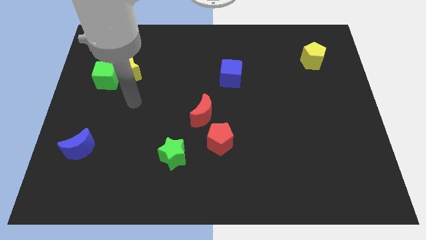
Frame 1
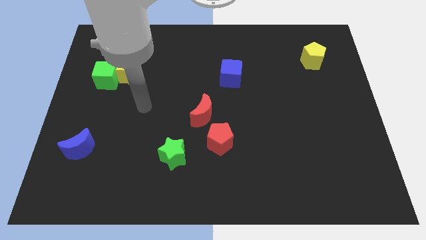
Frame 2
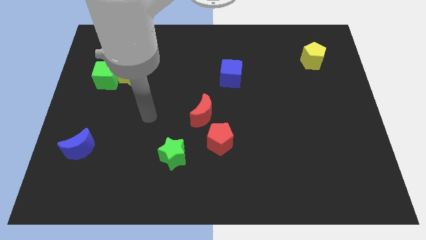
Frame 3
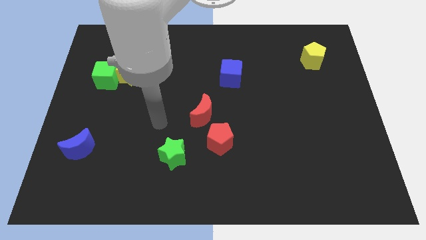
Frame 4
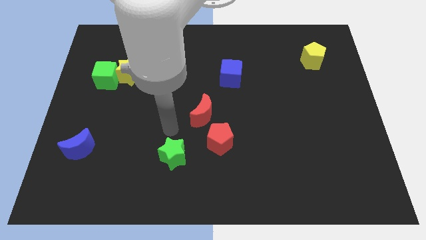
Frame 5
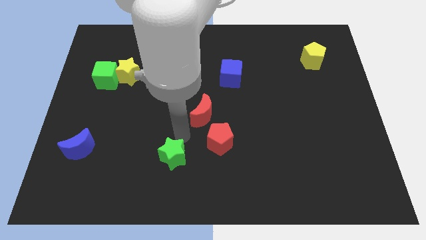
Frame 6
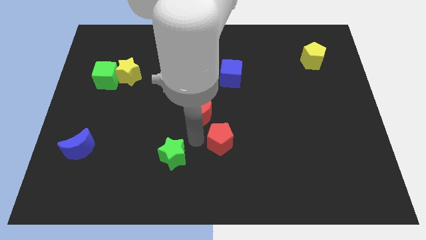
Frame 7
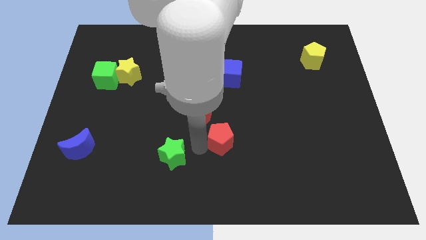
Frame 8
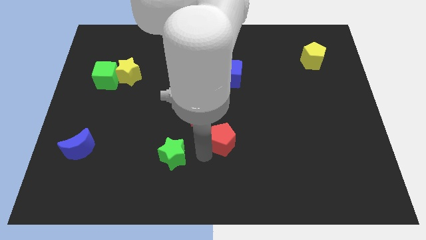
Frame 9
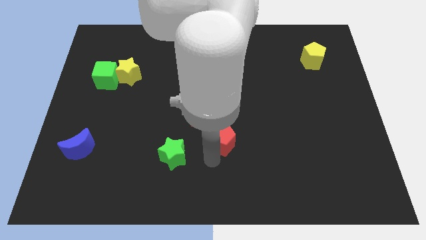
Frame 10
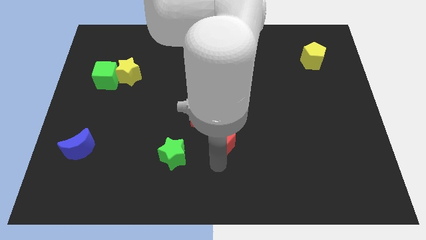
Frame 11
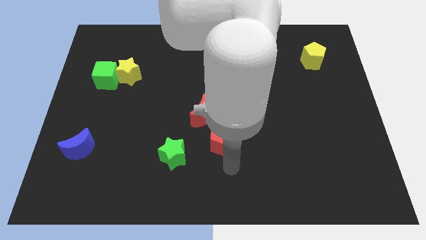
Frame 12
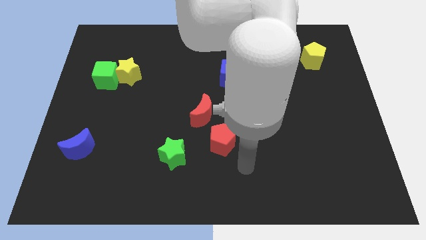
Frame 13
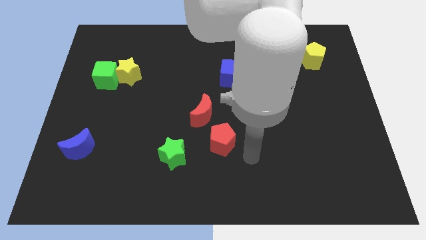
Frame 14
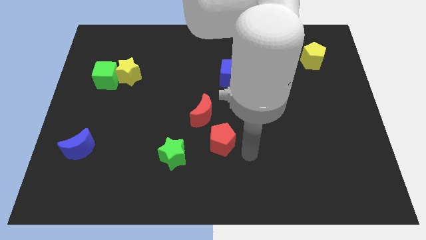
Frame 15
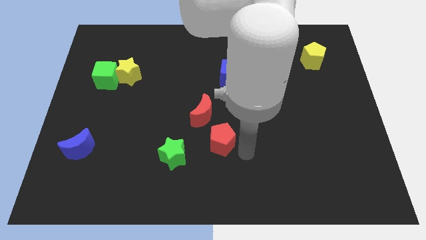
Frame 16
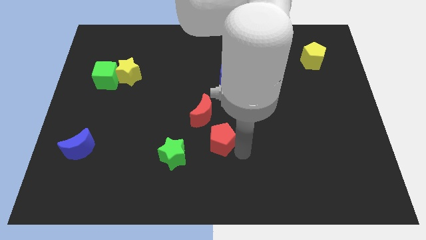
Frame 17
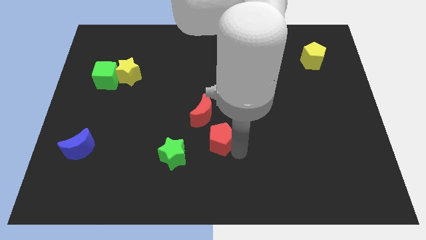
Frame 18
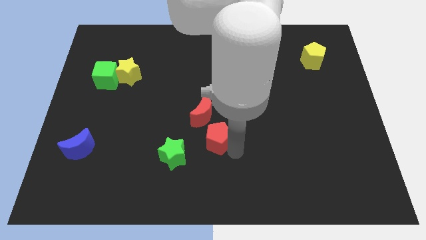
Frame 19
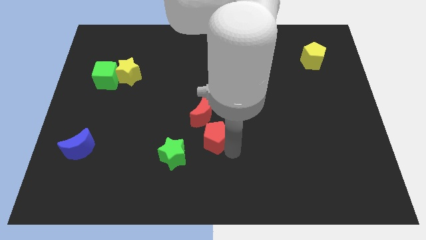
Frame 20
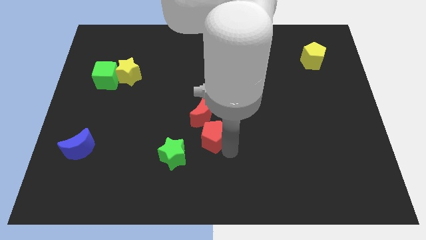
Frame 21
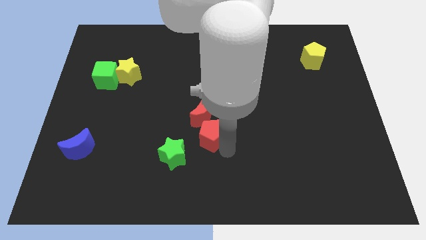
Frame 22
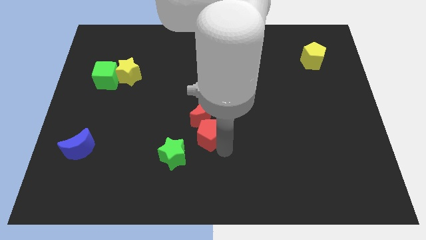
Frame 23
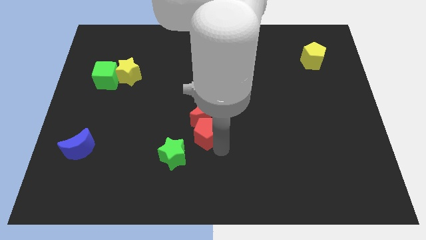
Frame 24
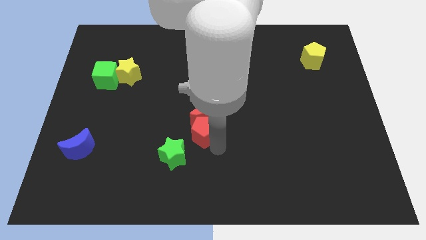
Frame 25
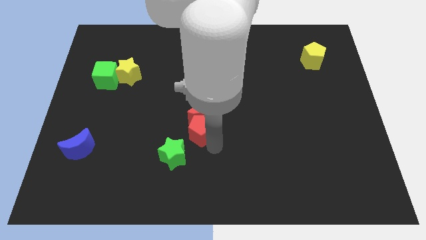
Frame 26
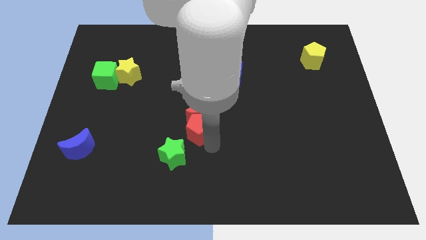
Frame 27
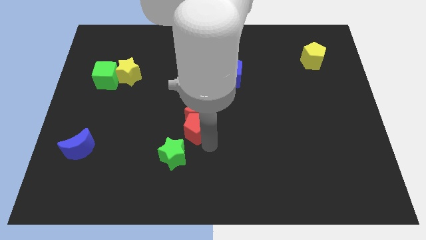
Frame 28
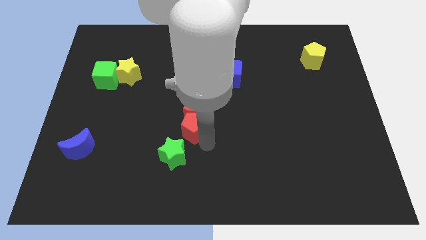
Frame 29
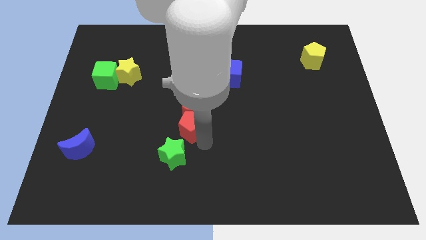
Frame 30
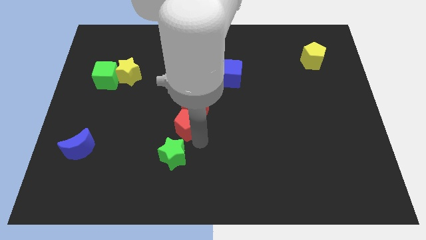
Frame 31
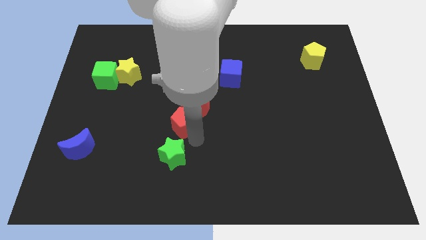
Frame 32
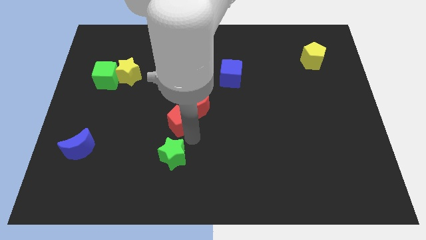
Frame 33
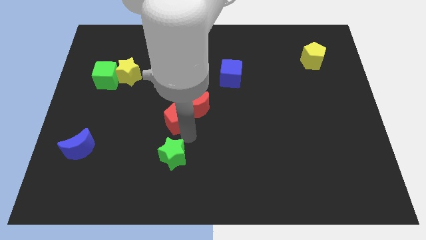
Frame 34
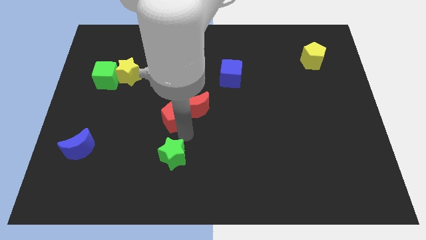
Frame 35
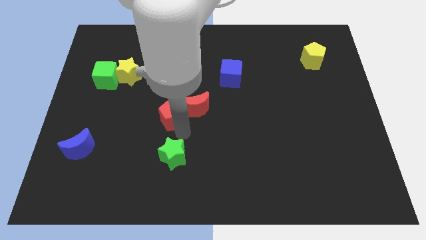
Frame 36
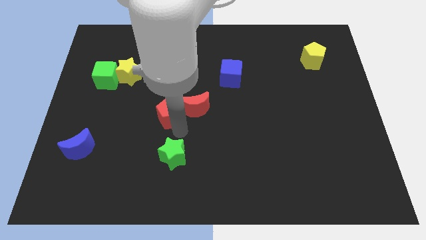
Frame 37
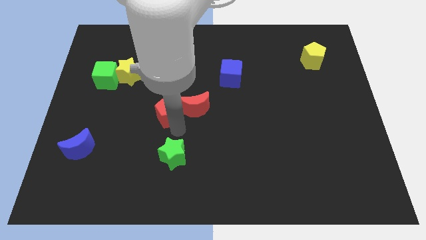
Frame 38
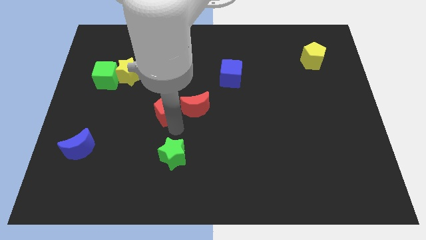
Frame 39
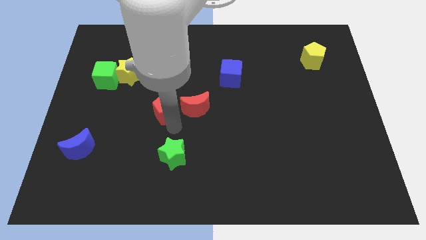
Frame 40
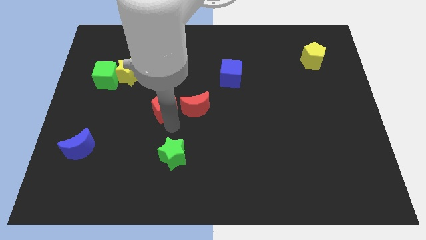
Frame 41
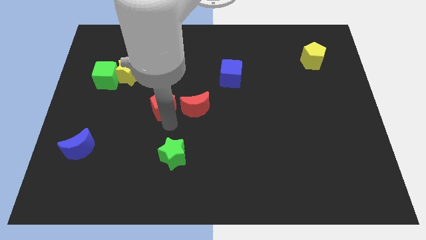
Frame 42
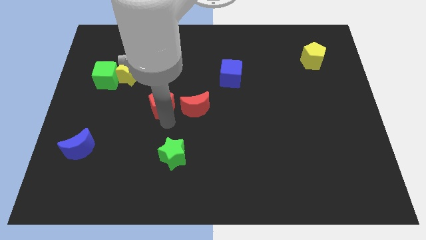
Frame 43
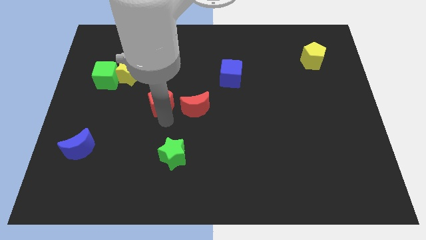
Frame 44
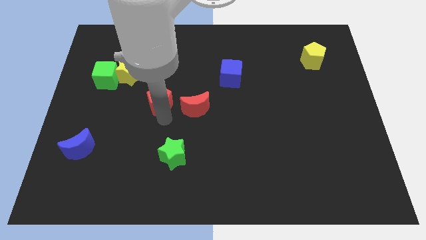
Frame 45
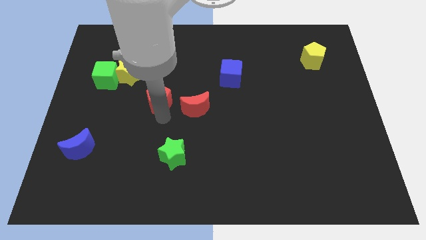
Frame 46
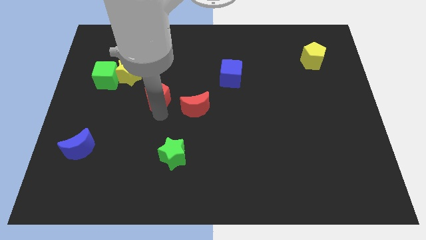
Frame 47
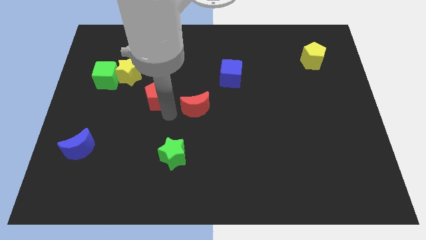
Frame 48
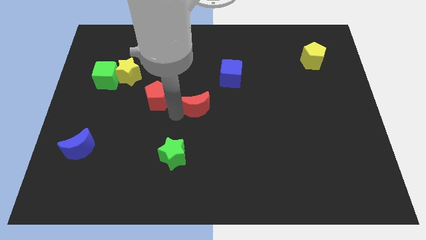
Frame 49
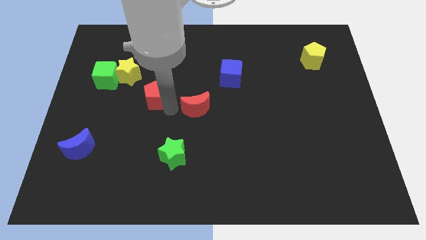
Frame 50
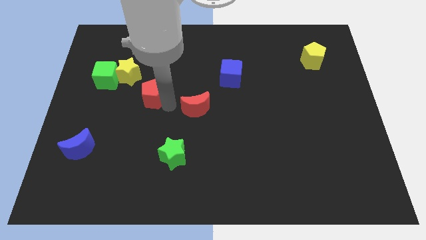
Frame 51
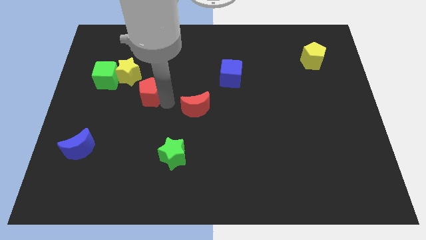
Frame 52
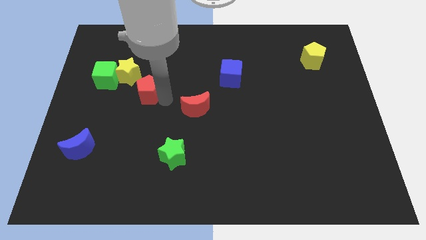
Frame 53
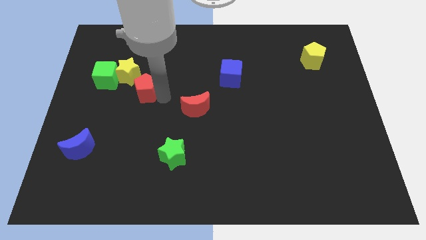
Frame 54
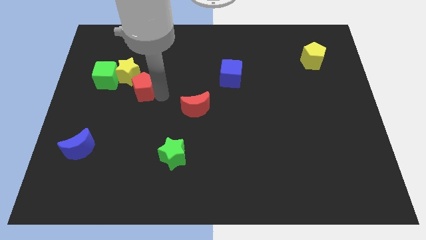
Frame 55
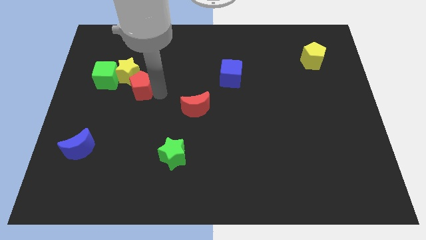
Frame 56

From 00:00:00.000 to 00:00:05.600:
put the red pentagon to the yellow star
